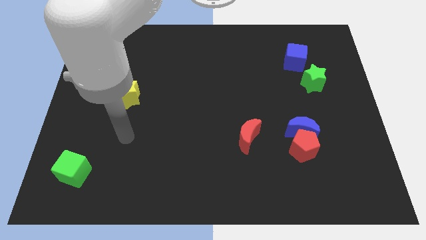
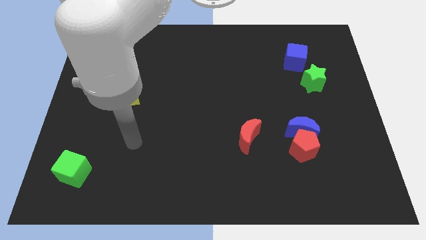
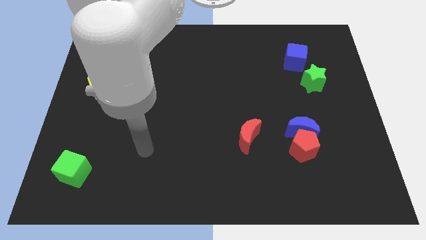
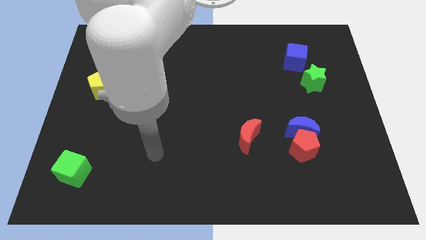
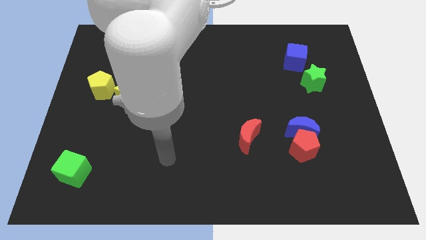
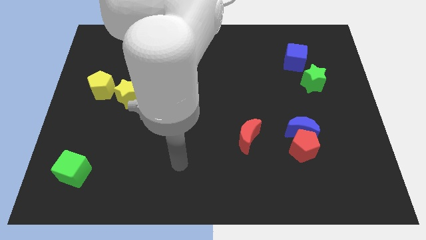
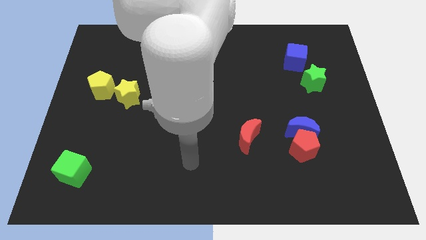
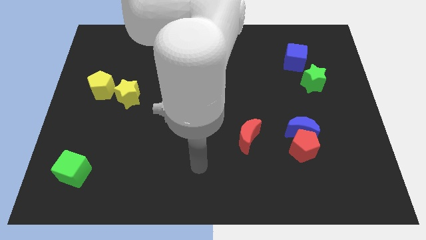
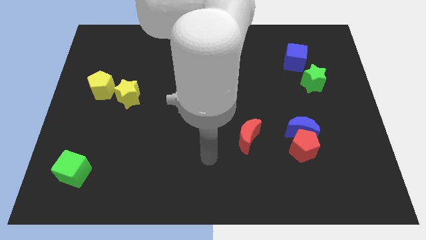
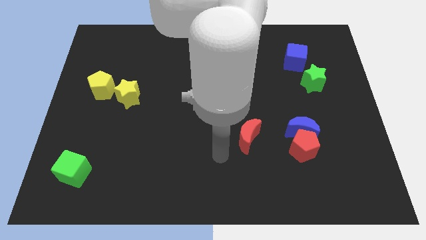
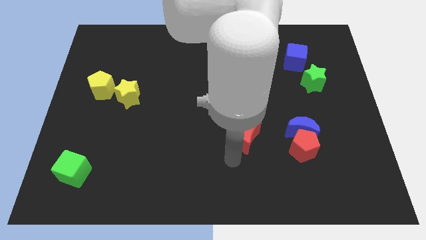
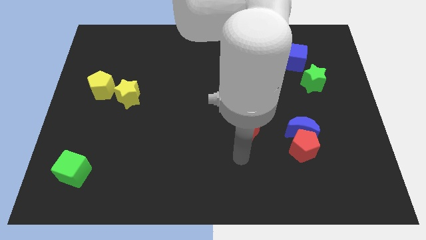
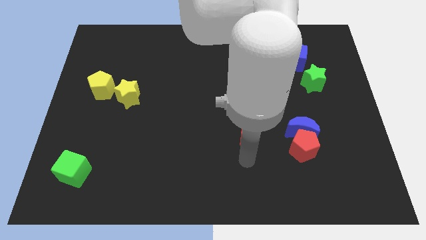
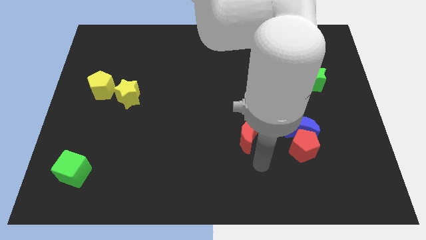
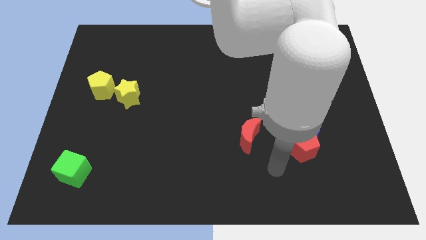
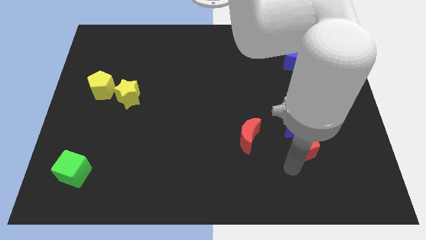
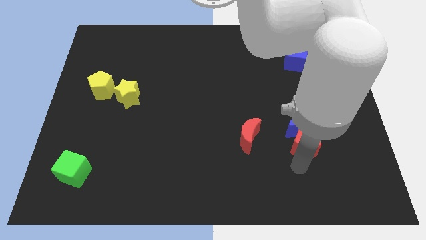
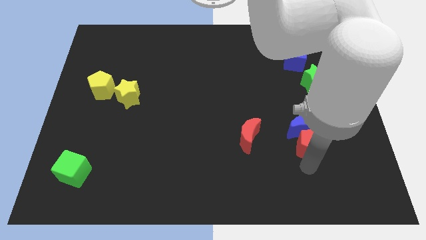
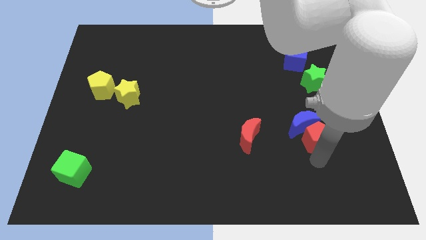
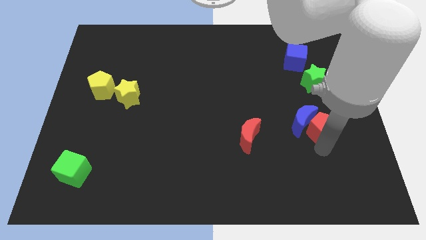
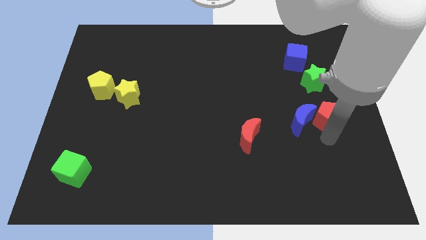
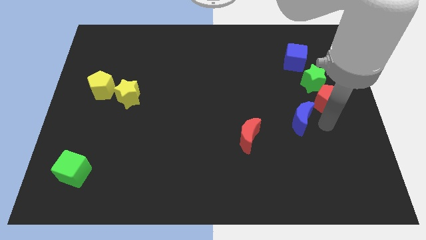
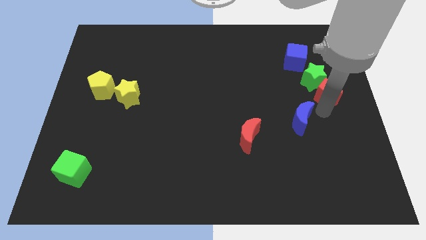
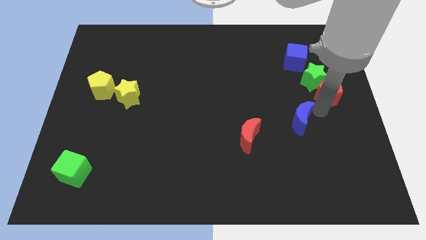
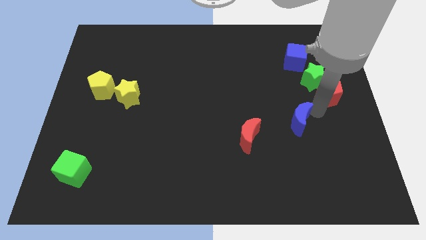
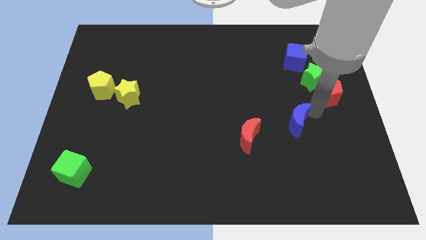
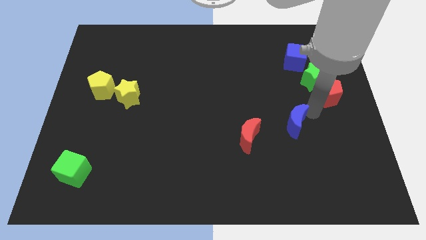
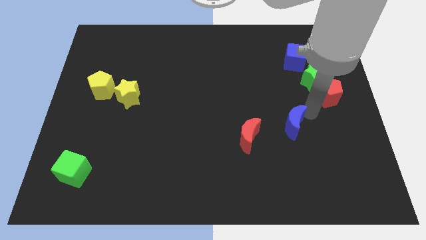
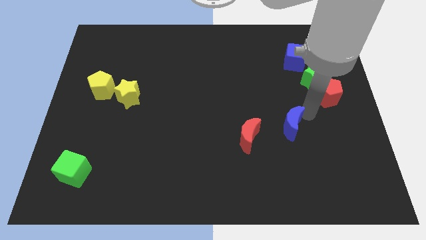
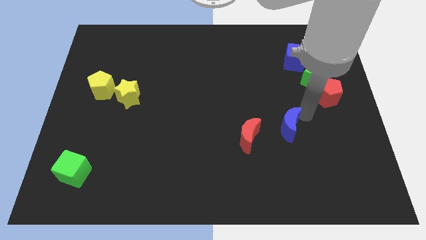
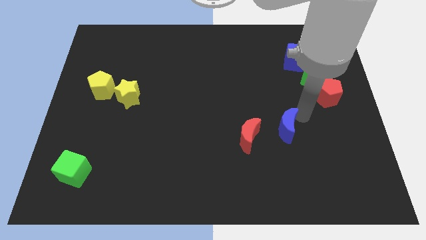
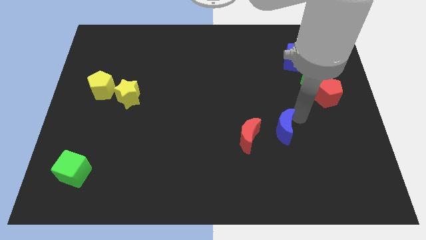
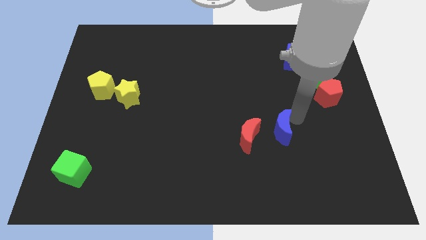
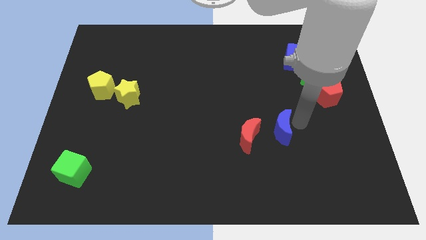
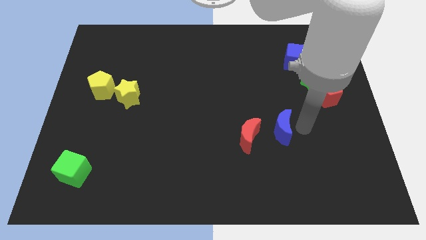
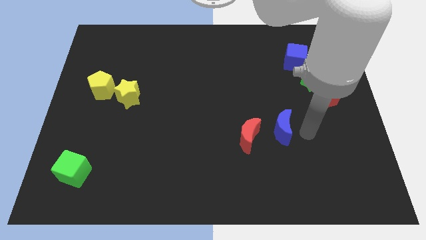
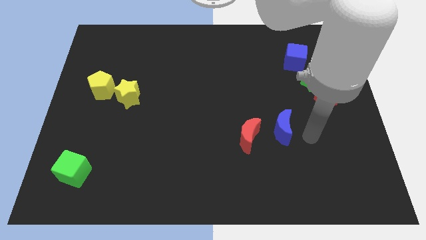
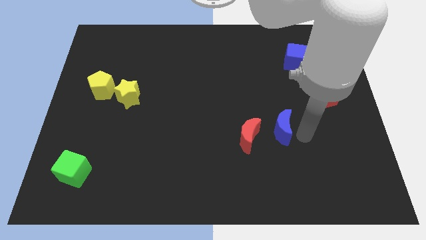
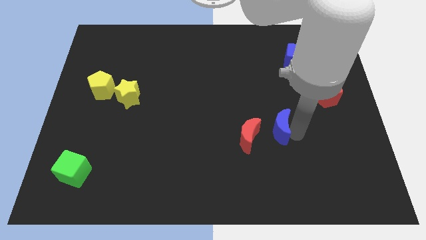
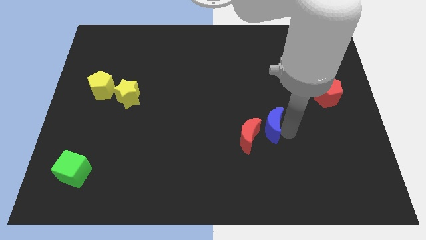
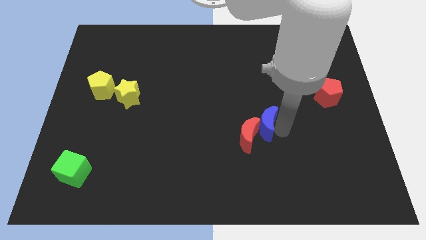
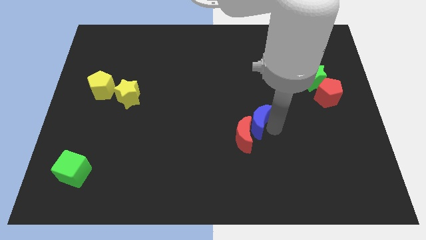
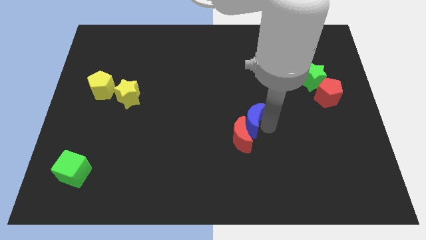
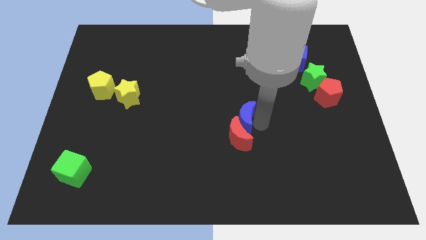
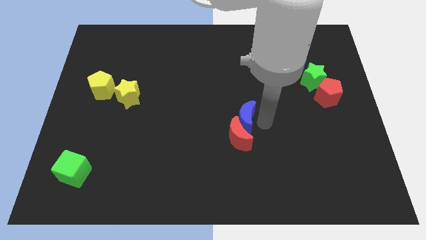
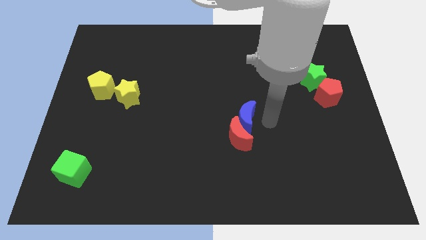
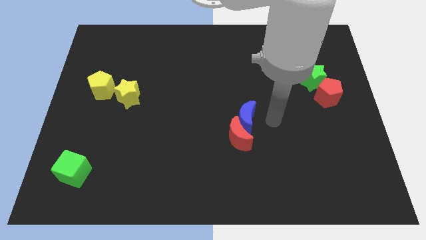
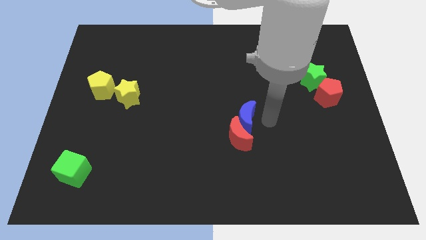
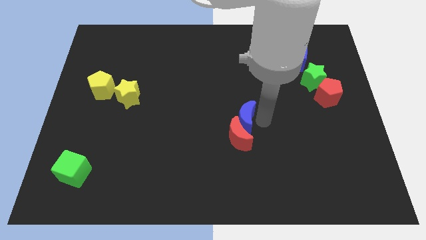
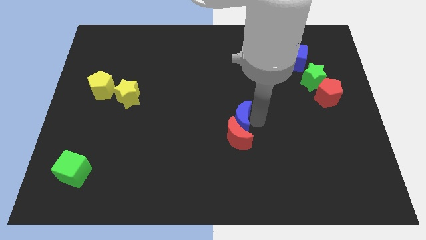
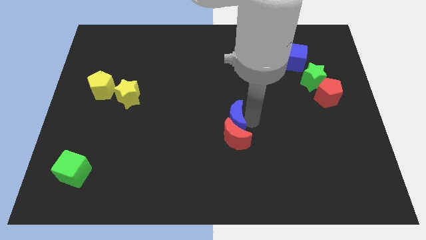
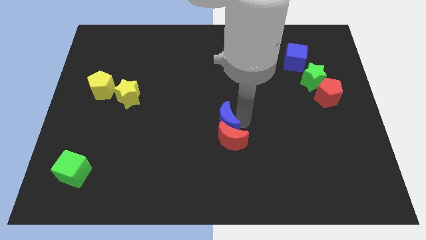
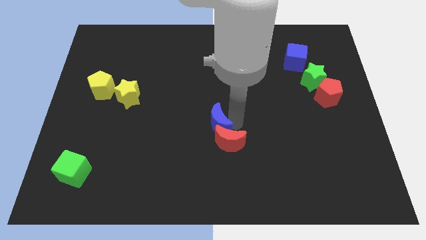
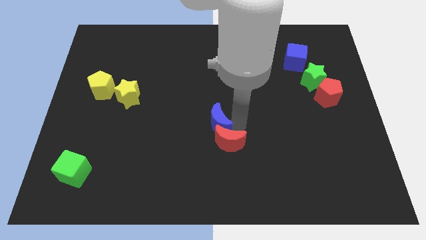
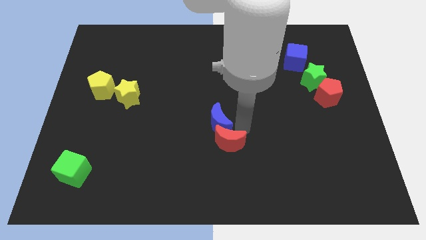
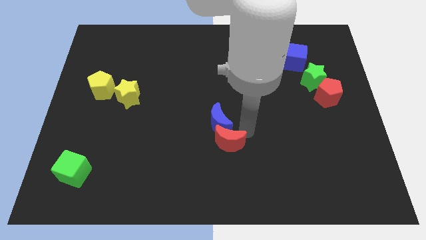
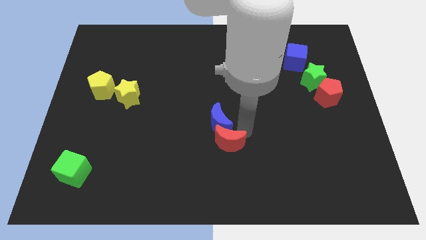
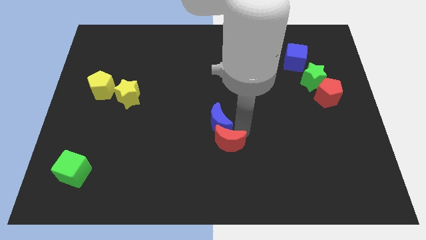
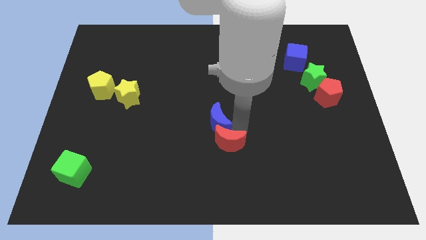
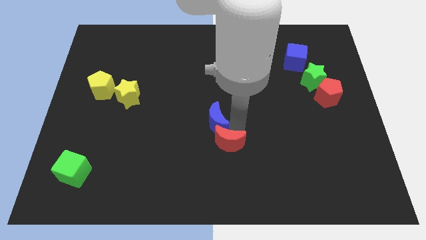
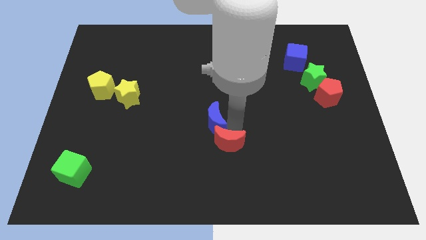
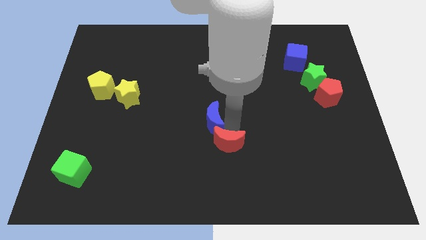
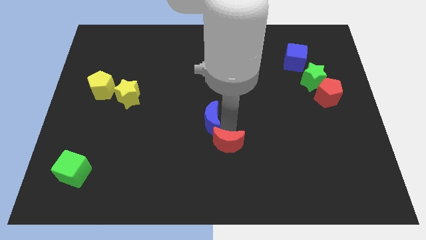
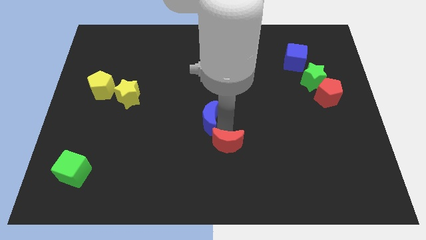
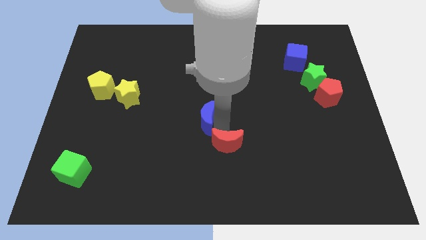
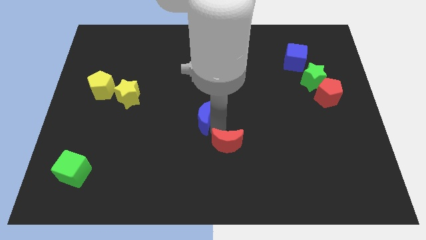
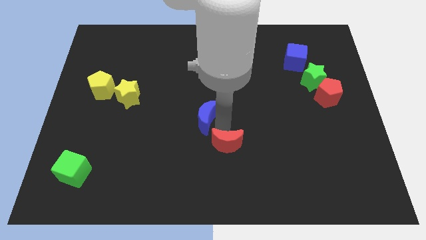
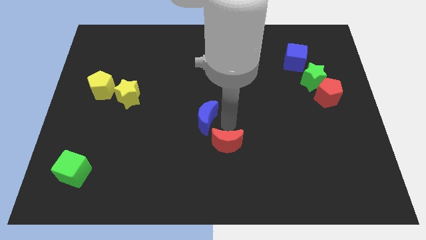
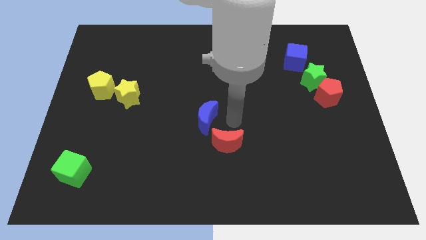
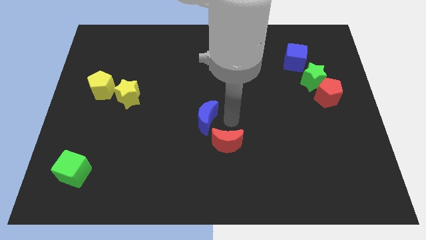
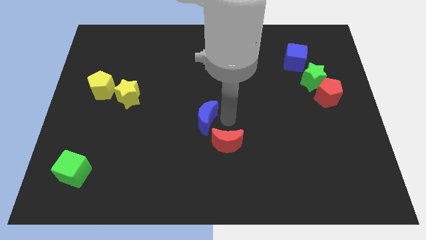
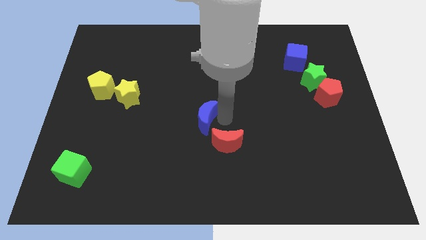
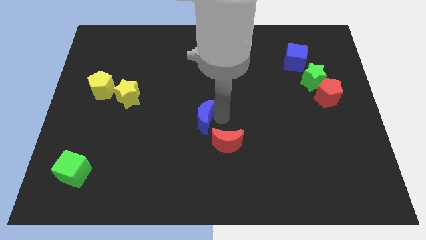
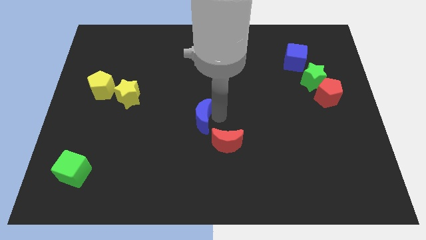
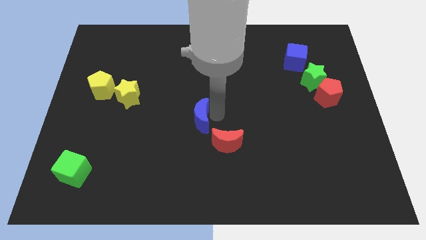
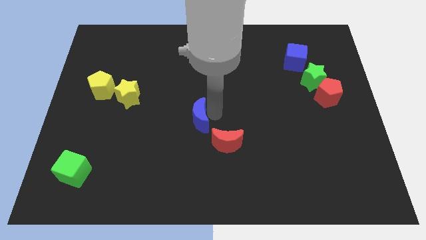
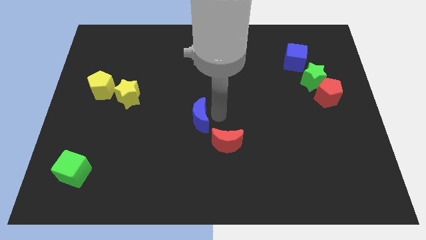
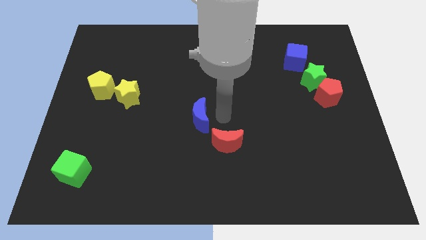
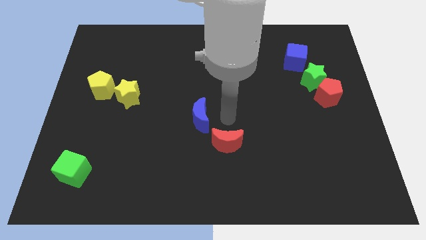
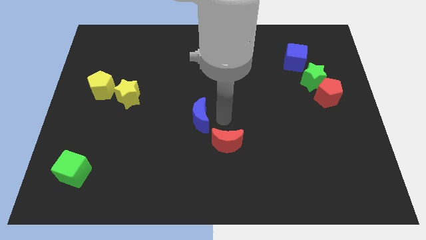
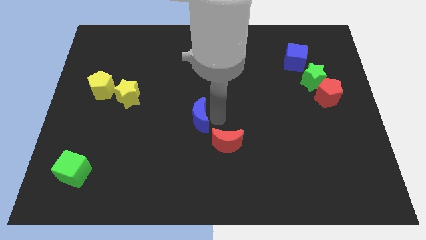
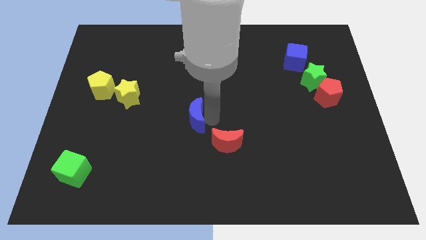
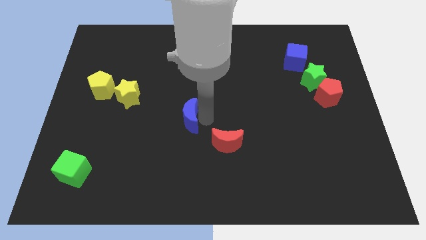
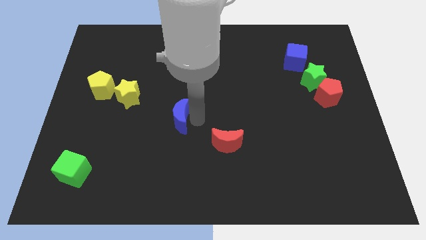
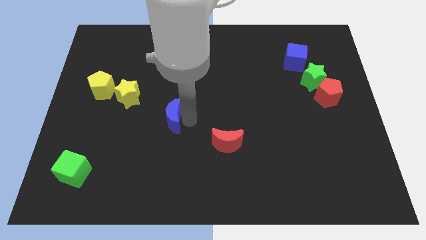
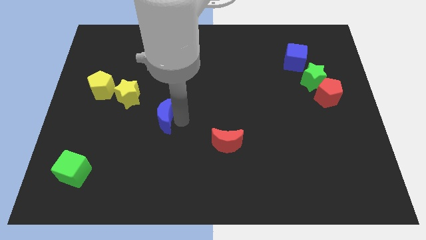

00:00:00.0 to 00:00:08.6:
move the blue moon diagonally down and to the right of the yellow star
